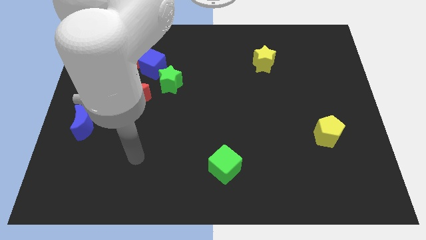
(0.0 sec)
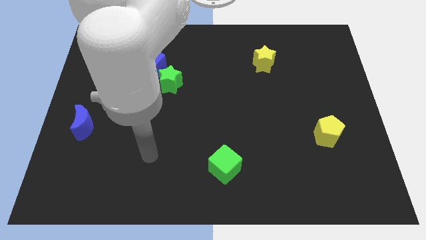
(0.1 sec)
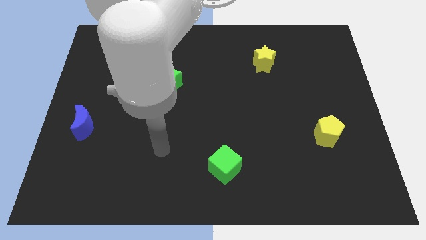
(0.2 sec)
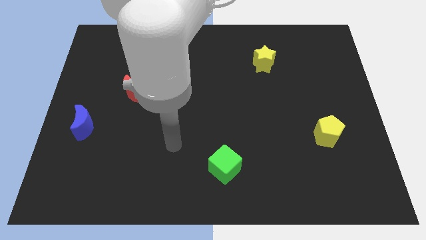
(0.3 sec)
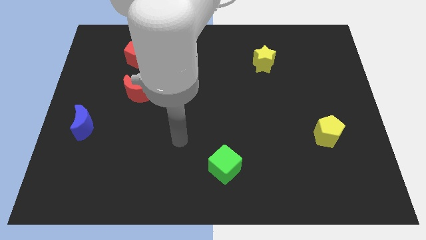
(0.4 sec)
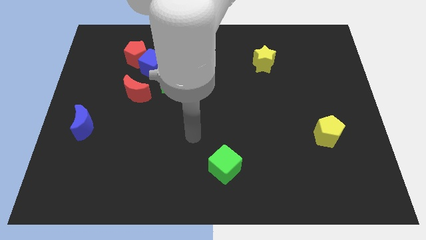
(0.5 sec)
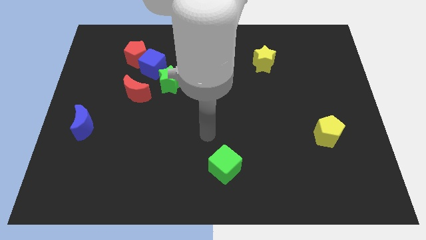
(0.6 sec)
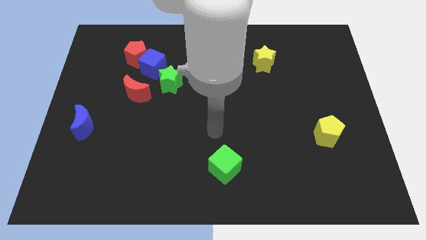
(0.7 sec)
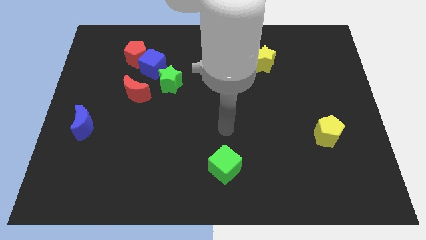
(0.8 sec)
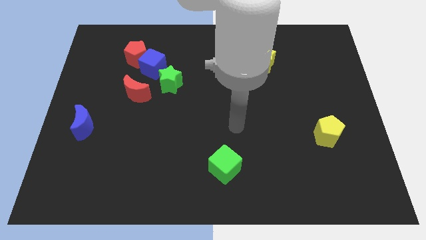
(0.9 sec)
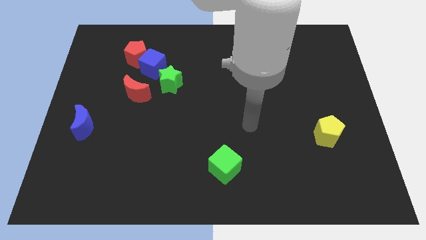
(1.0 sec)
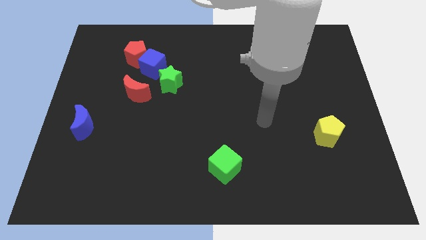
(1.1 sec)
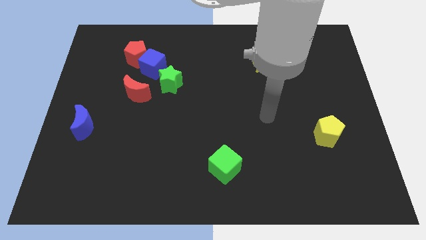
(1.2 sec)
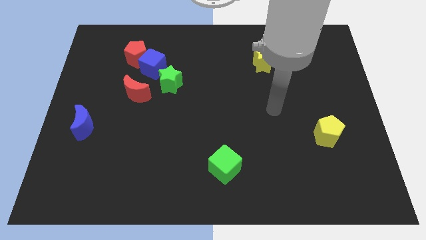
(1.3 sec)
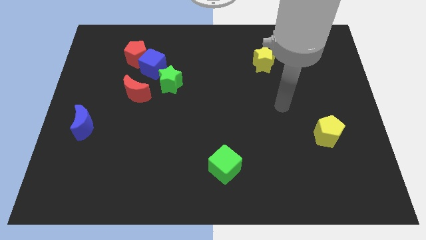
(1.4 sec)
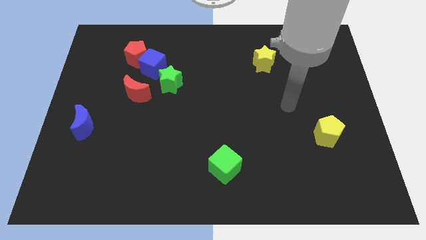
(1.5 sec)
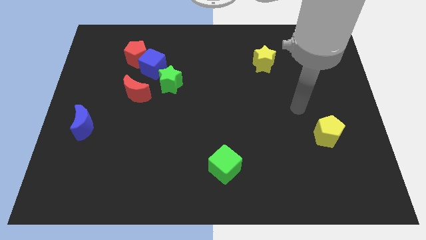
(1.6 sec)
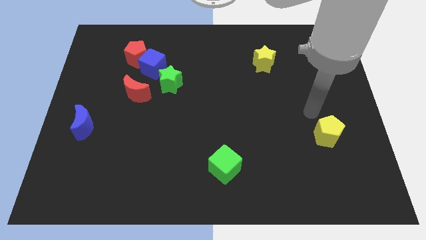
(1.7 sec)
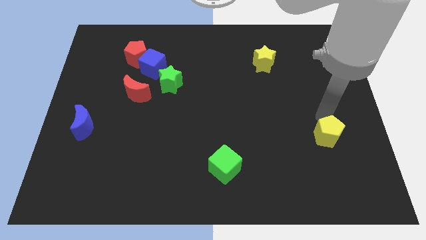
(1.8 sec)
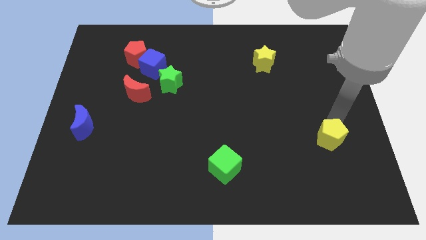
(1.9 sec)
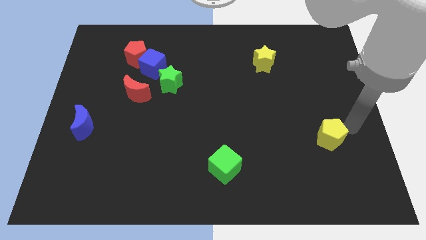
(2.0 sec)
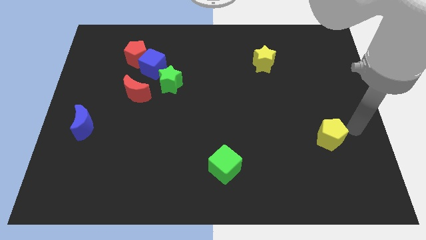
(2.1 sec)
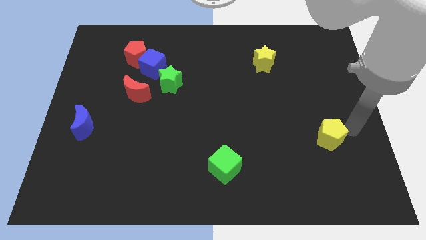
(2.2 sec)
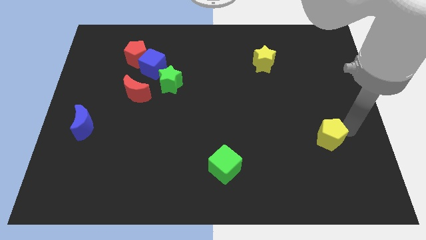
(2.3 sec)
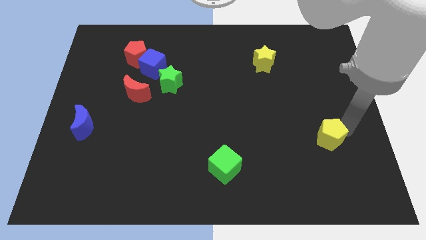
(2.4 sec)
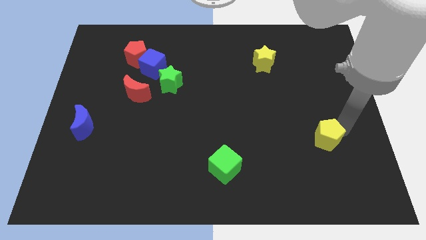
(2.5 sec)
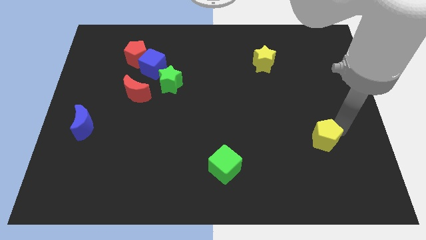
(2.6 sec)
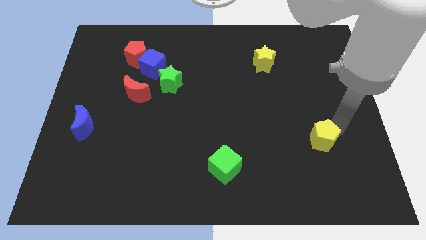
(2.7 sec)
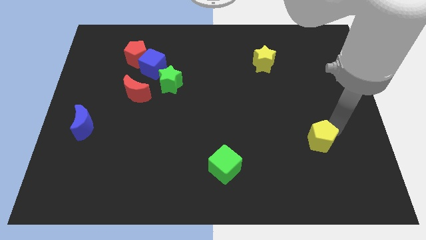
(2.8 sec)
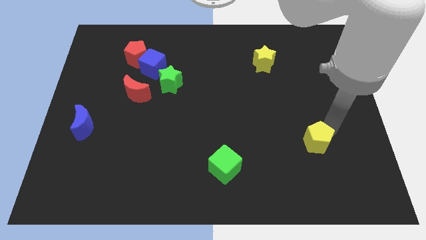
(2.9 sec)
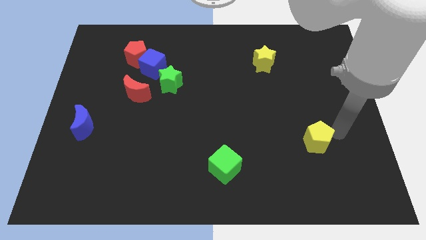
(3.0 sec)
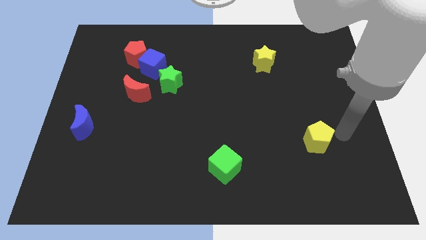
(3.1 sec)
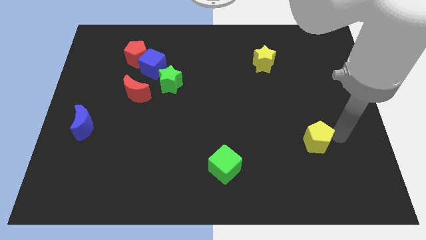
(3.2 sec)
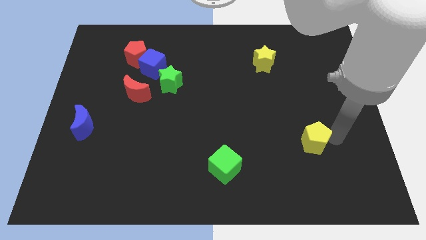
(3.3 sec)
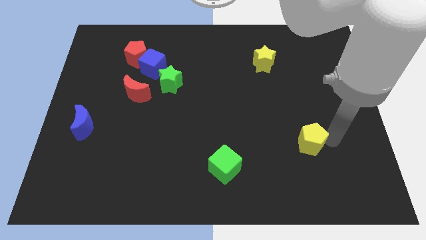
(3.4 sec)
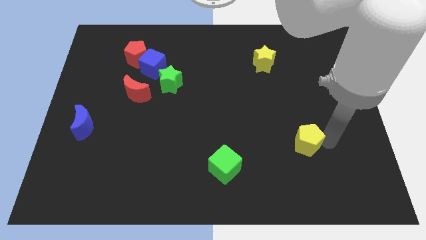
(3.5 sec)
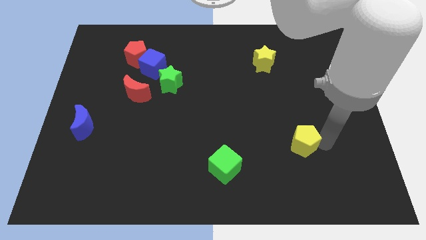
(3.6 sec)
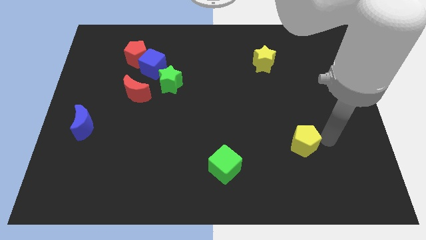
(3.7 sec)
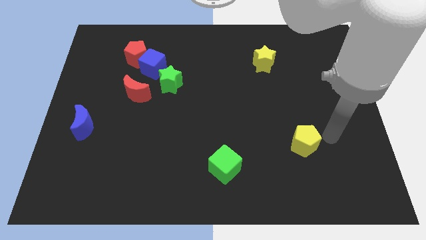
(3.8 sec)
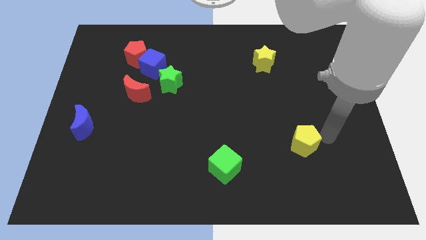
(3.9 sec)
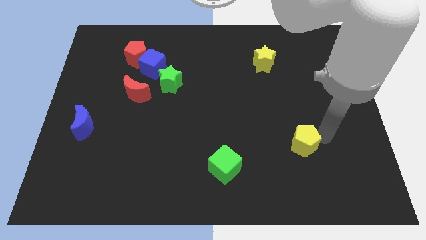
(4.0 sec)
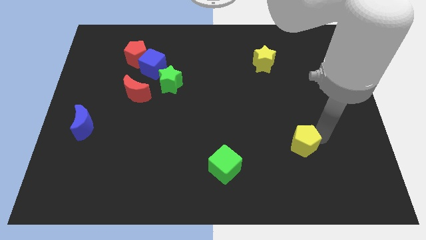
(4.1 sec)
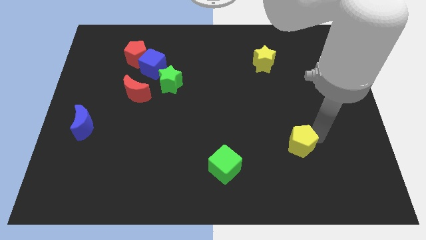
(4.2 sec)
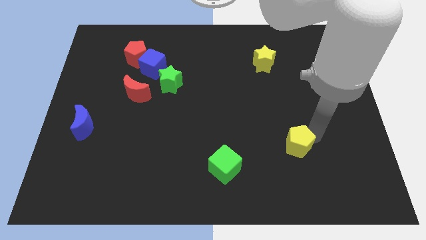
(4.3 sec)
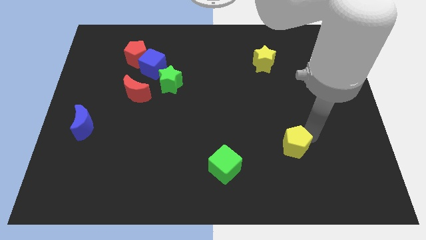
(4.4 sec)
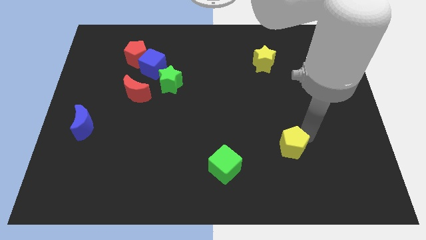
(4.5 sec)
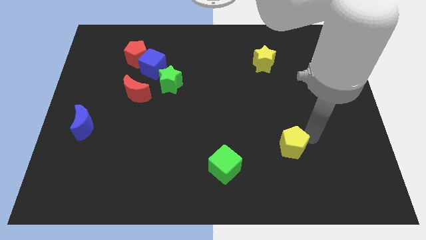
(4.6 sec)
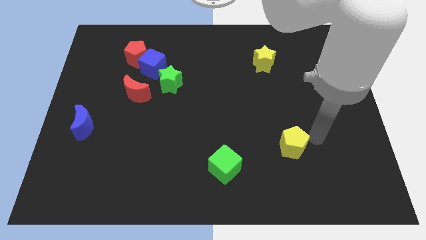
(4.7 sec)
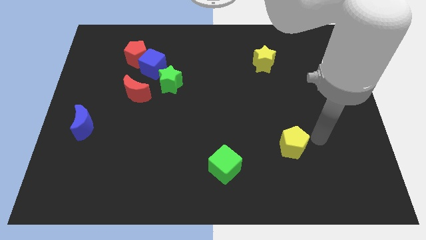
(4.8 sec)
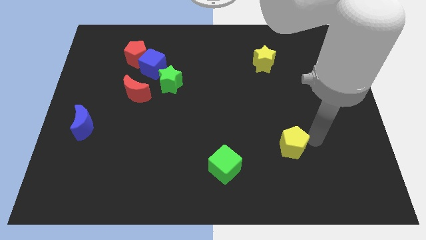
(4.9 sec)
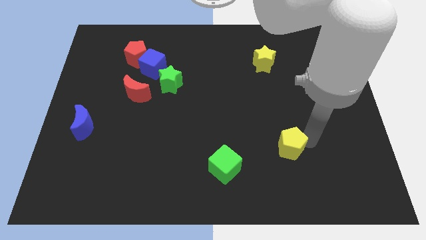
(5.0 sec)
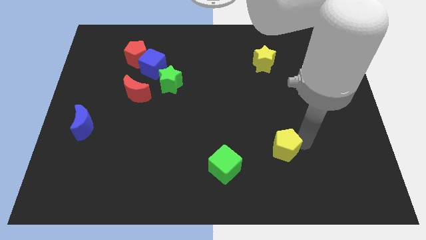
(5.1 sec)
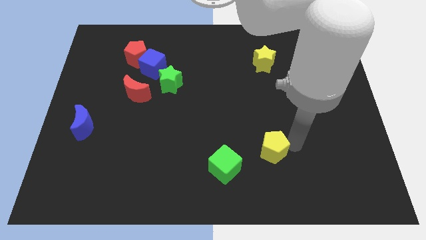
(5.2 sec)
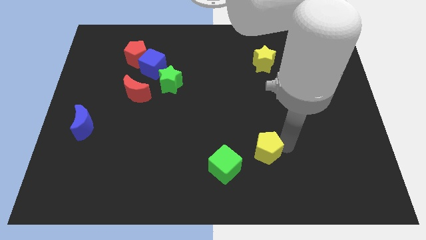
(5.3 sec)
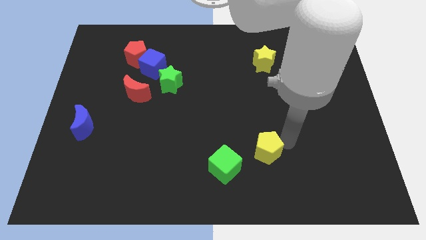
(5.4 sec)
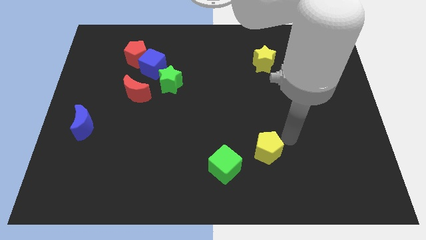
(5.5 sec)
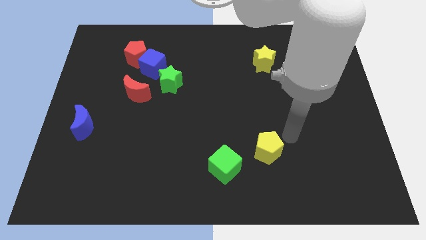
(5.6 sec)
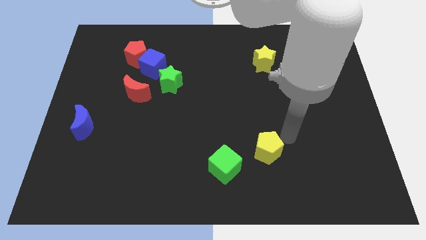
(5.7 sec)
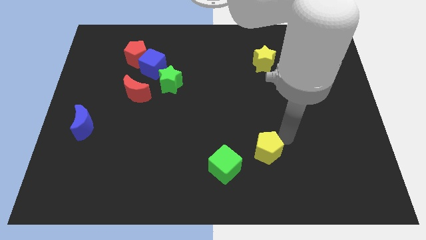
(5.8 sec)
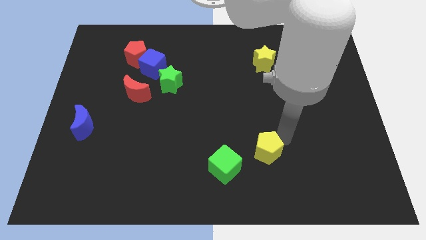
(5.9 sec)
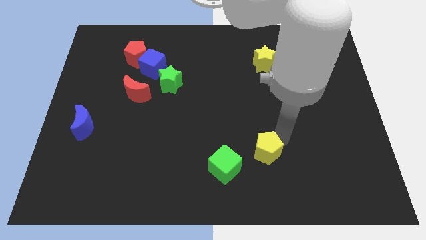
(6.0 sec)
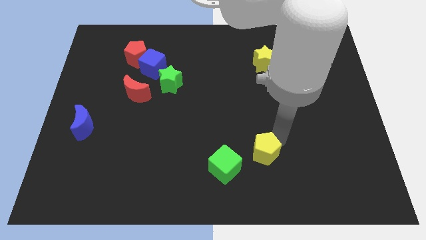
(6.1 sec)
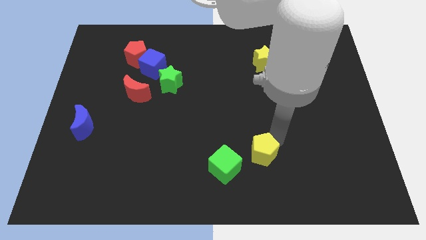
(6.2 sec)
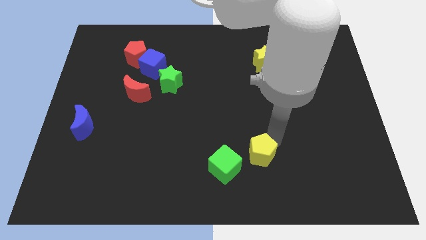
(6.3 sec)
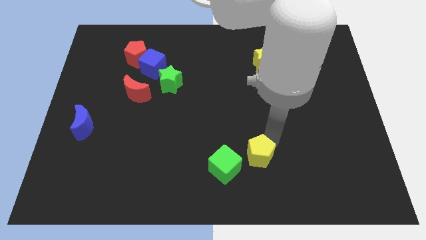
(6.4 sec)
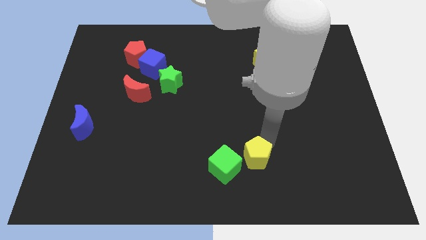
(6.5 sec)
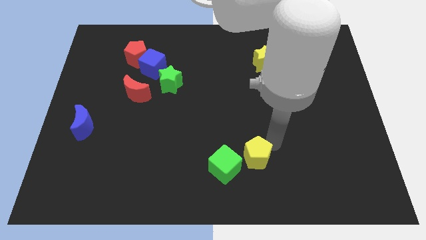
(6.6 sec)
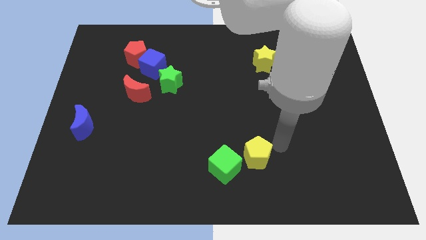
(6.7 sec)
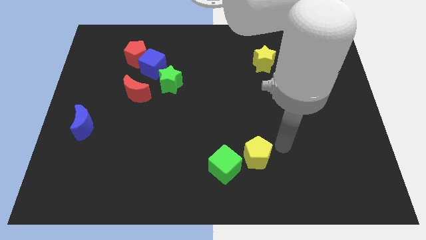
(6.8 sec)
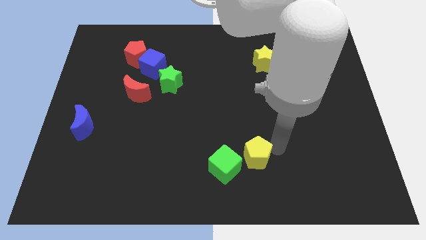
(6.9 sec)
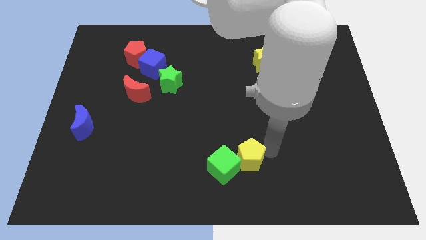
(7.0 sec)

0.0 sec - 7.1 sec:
push the yellow pentagon to the green cube
